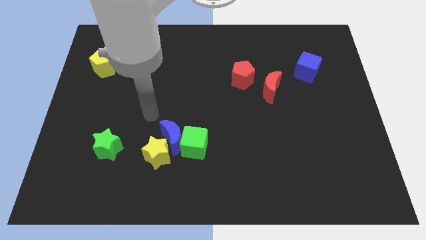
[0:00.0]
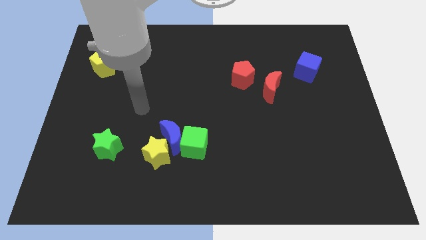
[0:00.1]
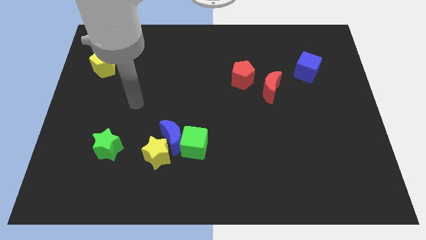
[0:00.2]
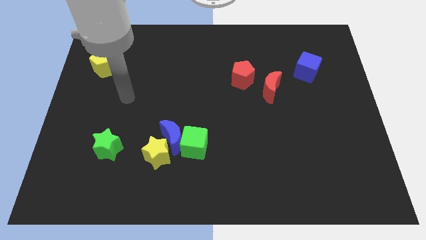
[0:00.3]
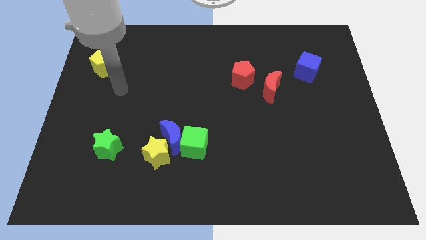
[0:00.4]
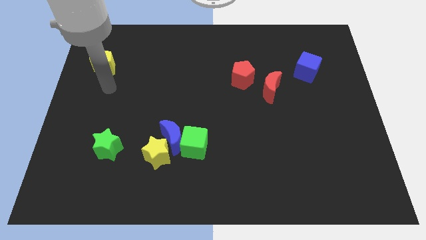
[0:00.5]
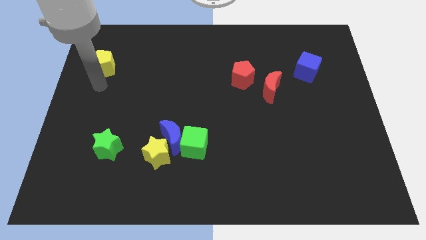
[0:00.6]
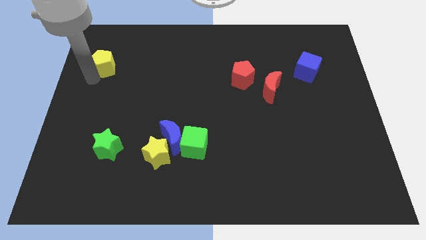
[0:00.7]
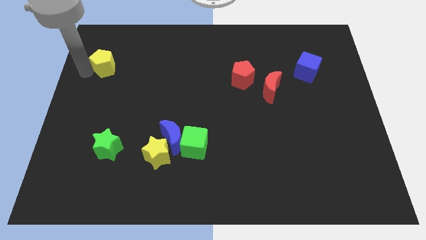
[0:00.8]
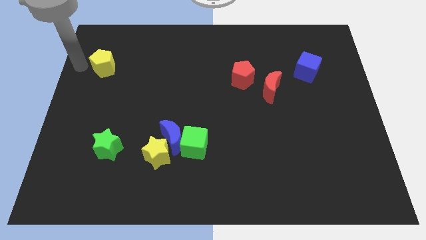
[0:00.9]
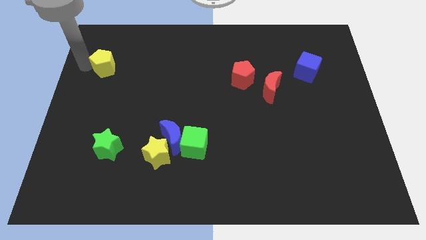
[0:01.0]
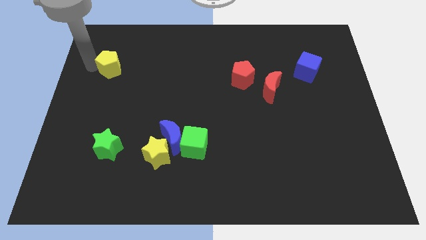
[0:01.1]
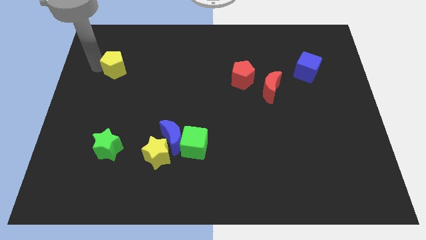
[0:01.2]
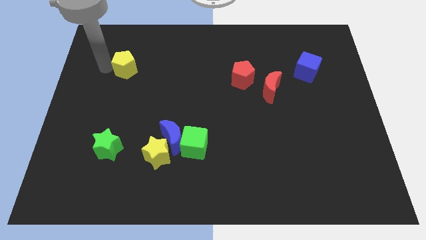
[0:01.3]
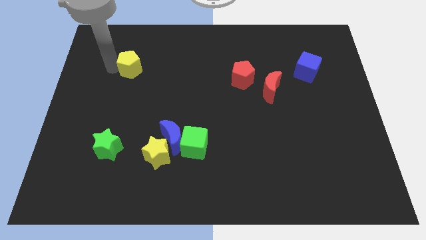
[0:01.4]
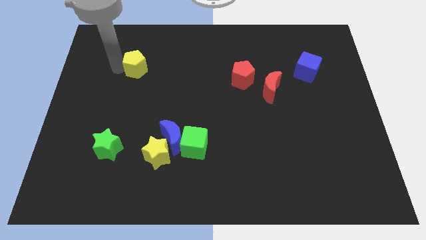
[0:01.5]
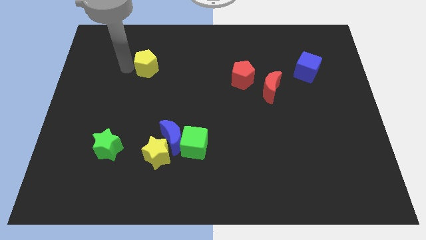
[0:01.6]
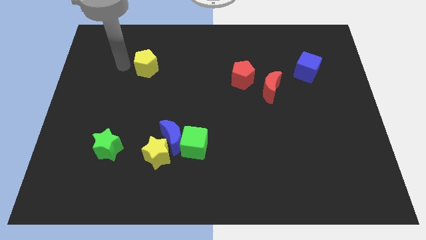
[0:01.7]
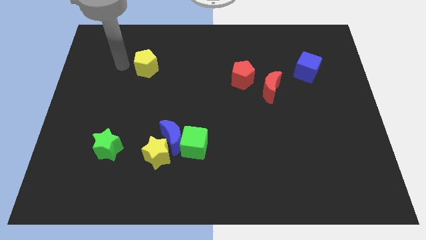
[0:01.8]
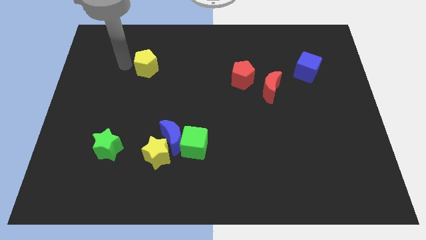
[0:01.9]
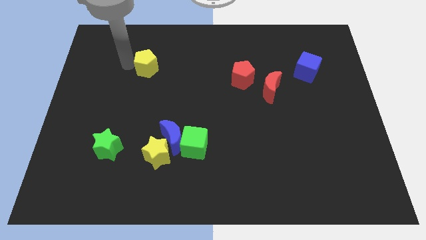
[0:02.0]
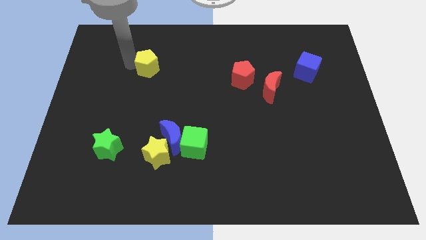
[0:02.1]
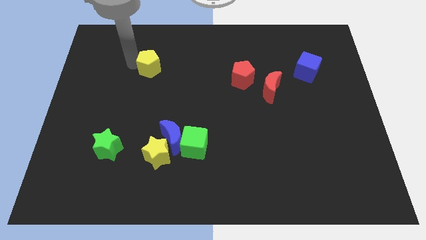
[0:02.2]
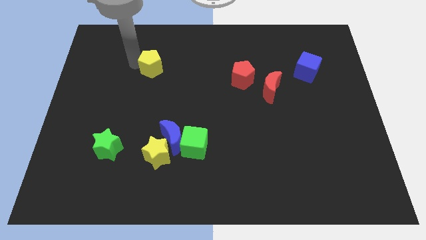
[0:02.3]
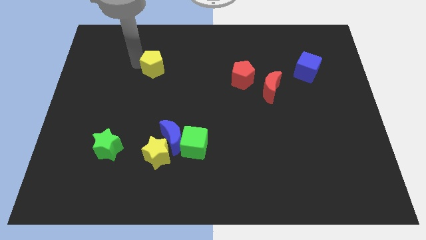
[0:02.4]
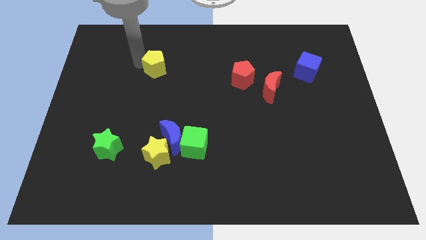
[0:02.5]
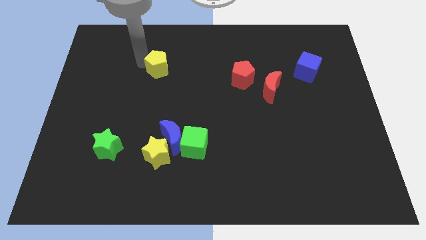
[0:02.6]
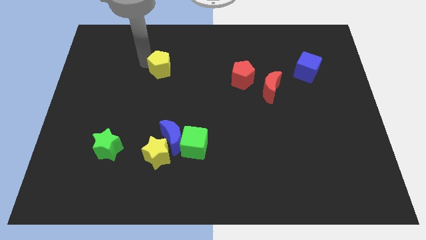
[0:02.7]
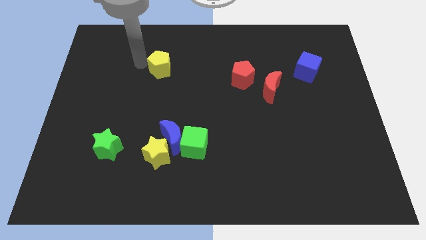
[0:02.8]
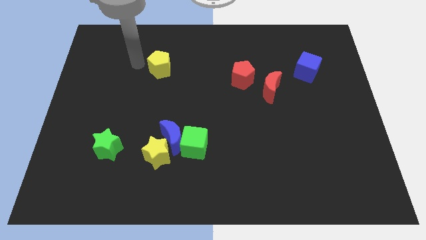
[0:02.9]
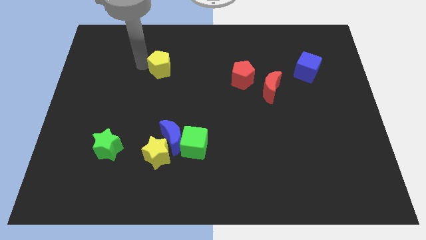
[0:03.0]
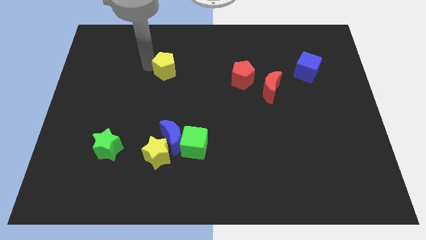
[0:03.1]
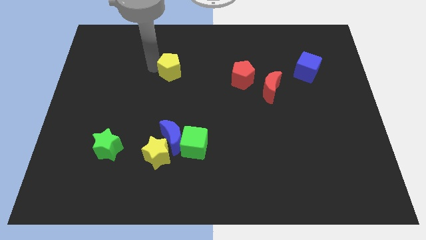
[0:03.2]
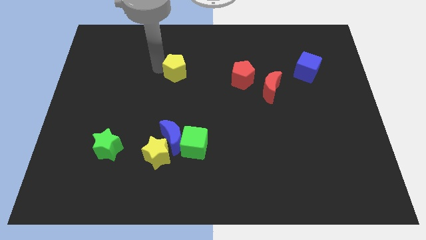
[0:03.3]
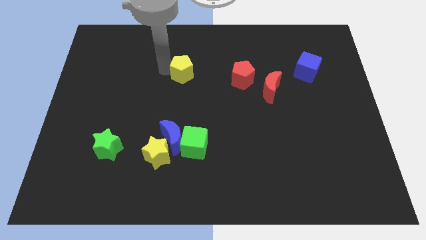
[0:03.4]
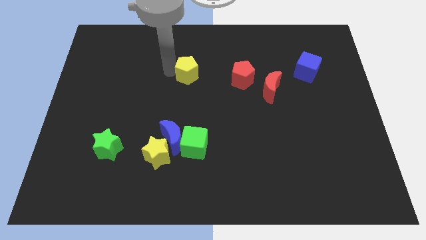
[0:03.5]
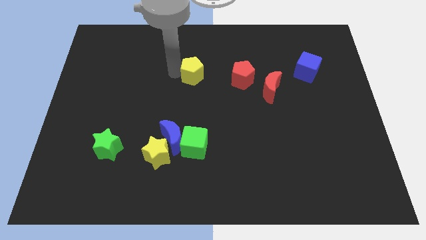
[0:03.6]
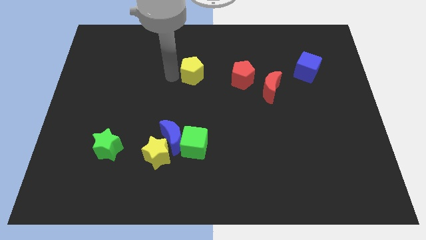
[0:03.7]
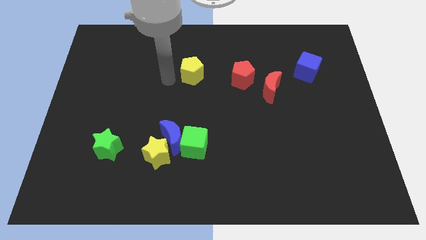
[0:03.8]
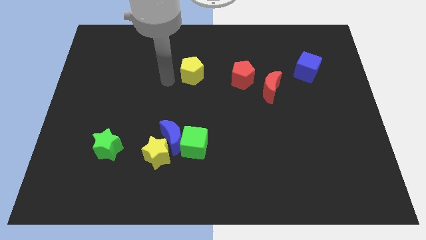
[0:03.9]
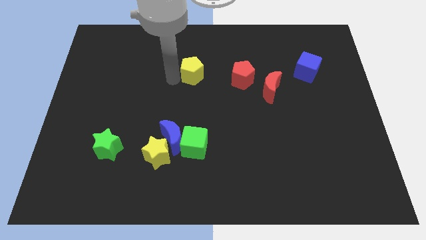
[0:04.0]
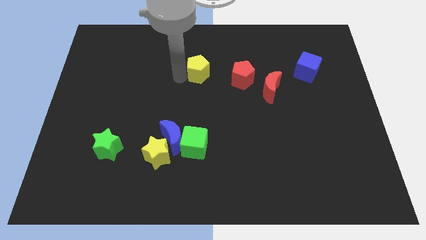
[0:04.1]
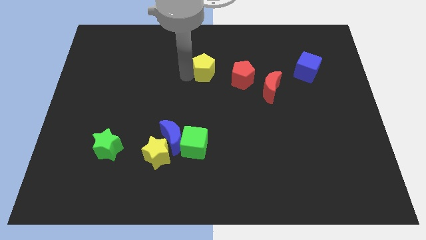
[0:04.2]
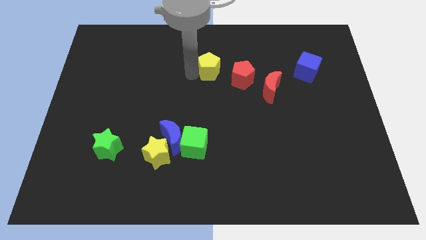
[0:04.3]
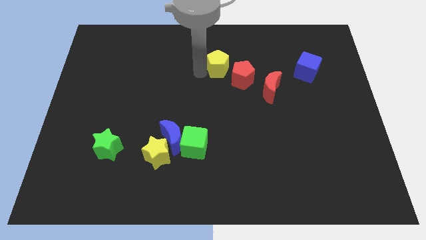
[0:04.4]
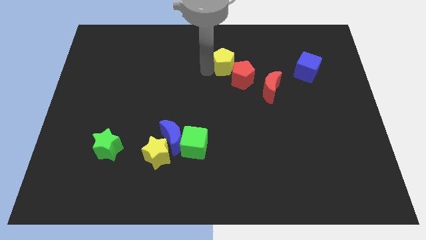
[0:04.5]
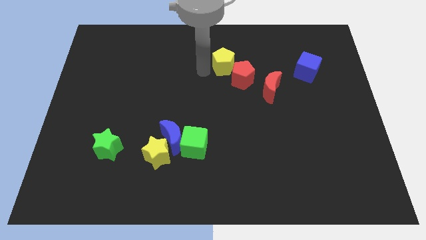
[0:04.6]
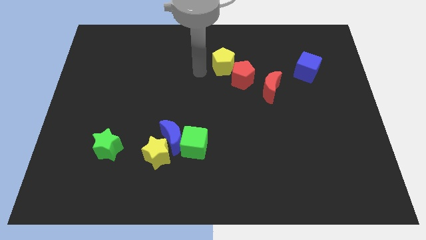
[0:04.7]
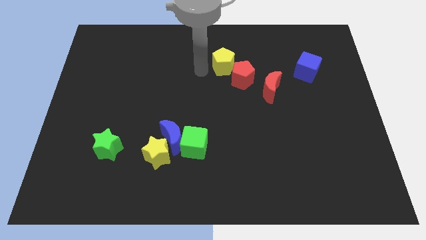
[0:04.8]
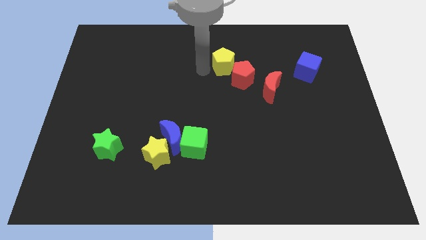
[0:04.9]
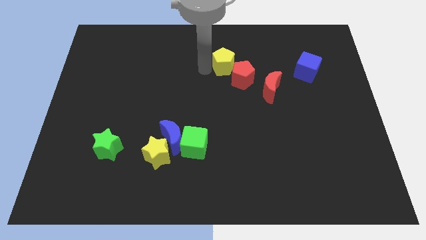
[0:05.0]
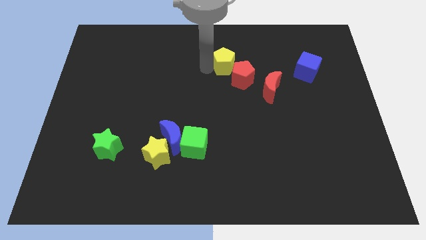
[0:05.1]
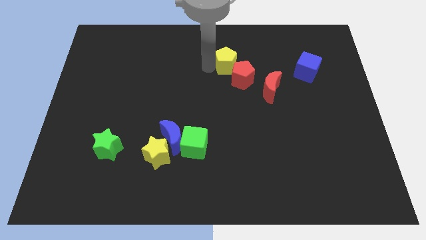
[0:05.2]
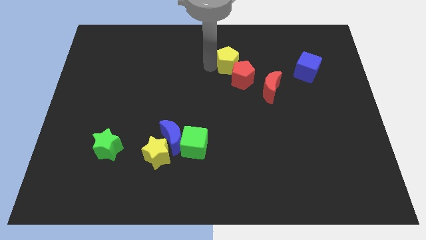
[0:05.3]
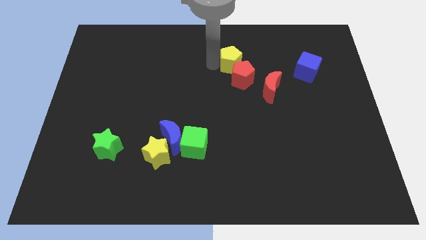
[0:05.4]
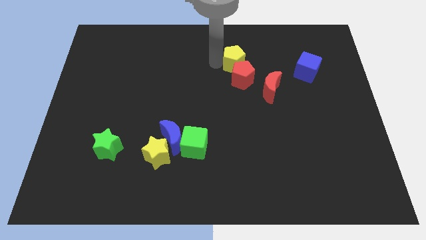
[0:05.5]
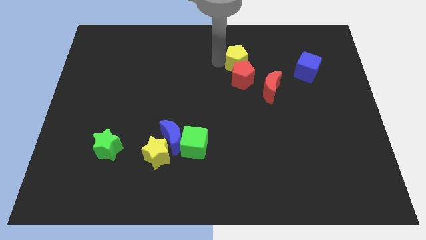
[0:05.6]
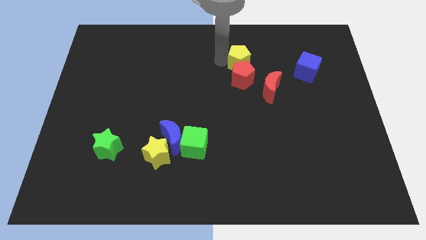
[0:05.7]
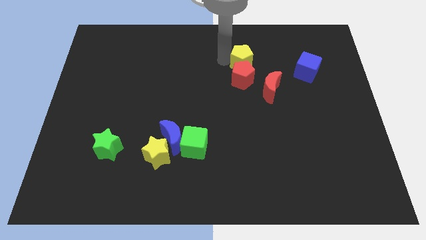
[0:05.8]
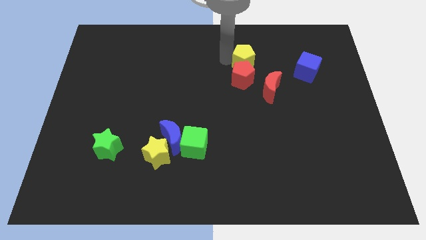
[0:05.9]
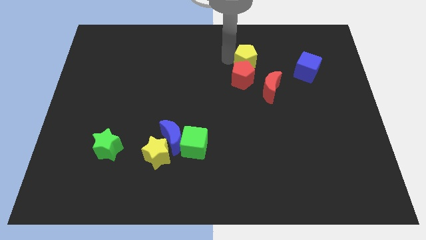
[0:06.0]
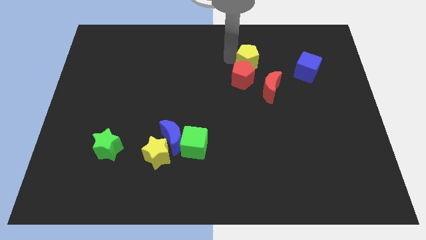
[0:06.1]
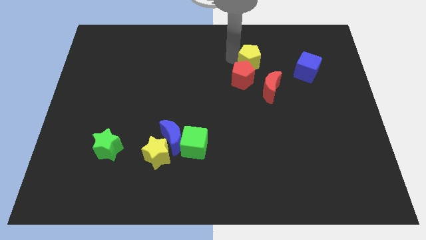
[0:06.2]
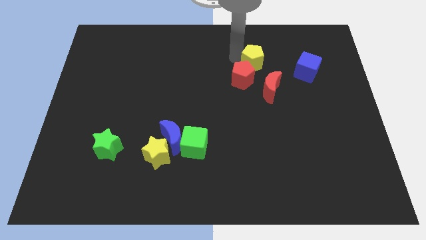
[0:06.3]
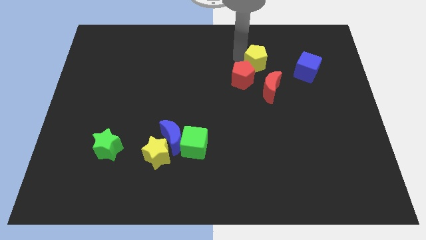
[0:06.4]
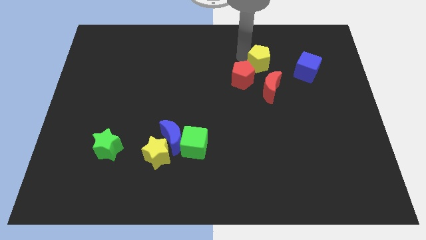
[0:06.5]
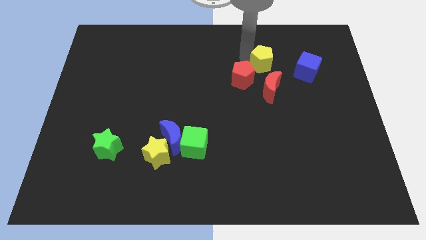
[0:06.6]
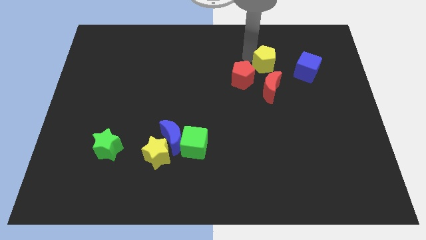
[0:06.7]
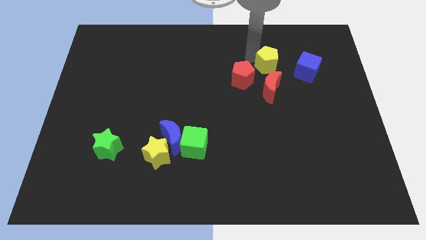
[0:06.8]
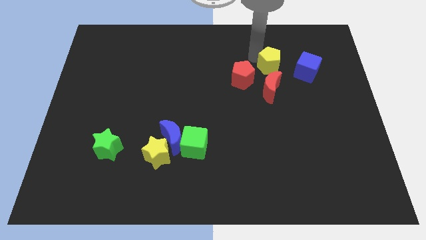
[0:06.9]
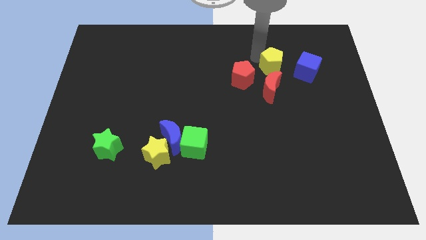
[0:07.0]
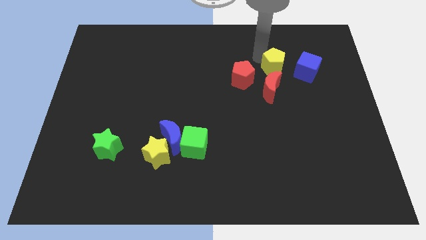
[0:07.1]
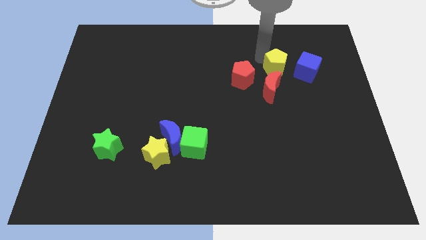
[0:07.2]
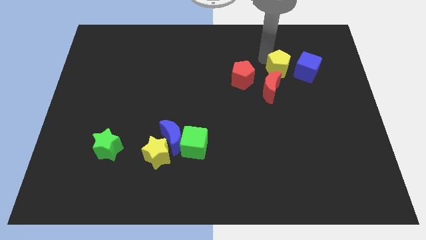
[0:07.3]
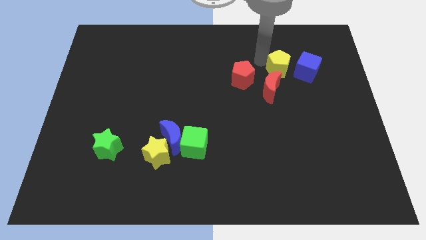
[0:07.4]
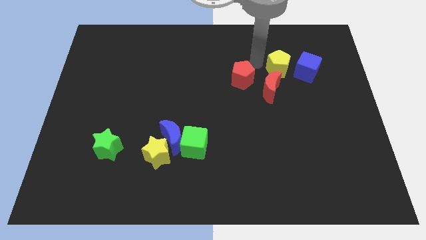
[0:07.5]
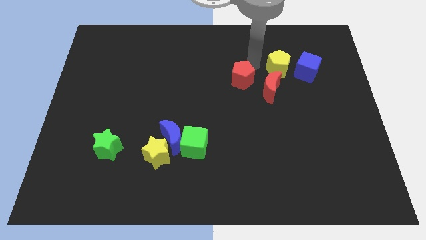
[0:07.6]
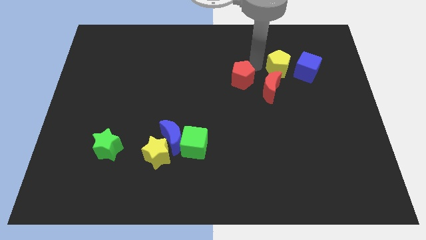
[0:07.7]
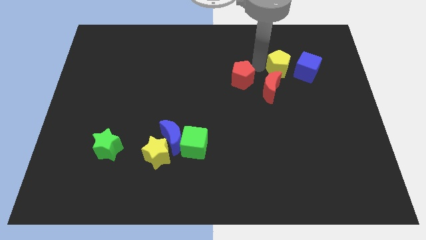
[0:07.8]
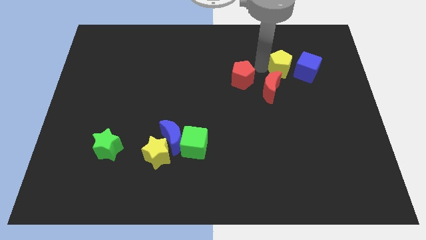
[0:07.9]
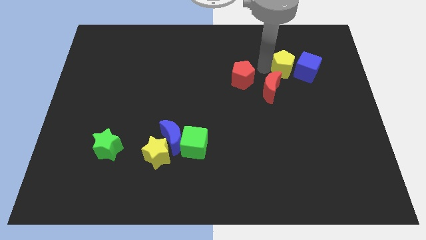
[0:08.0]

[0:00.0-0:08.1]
push the yellow pentagon next to the blue cube
